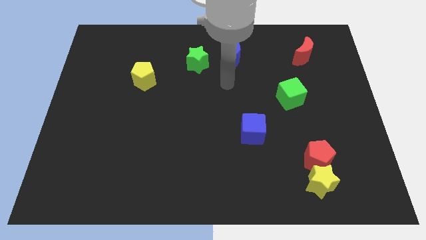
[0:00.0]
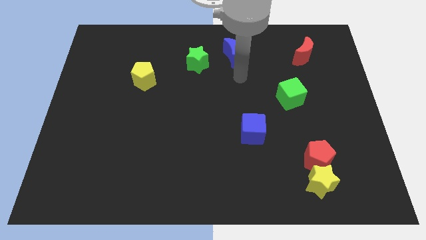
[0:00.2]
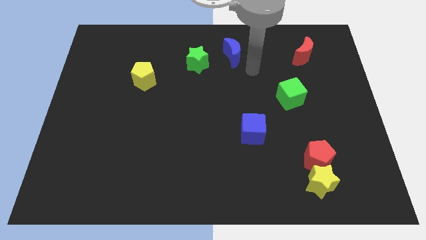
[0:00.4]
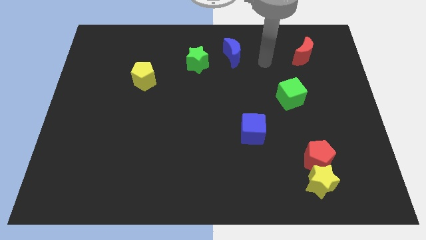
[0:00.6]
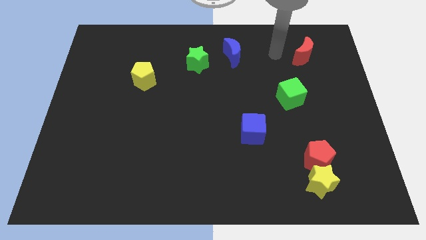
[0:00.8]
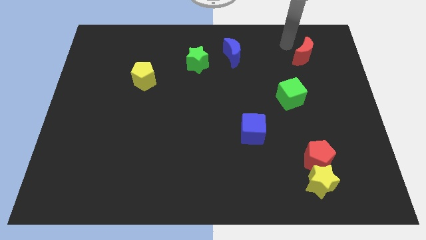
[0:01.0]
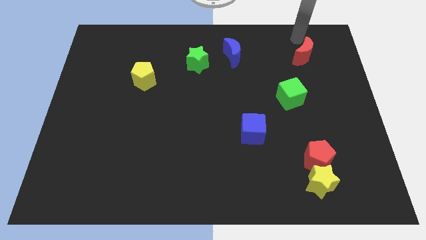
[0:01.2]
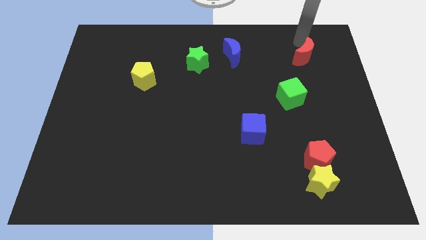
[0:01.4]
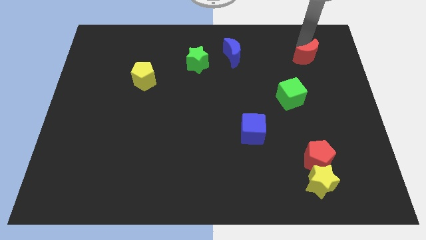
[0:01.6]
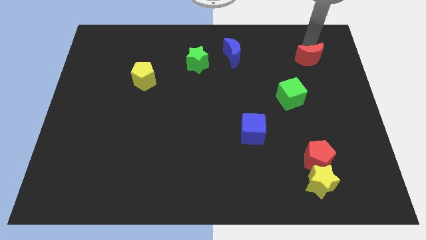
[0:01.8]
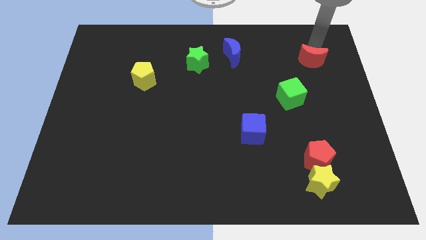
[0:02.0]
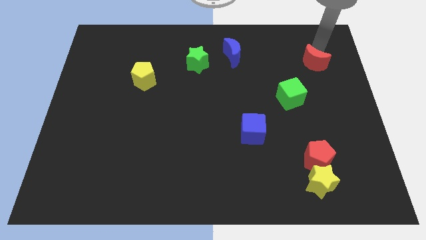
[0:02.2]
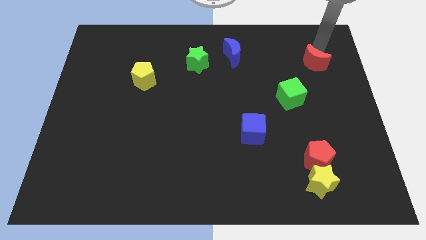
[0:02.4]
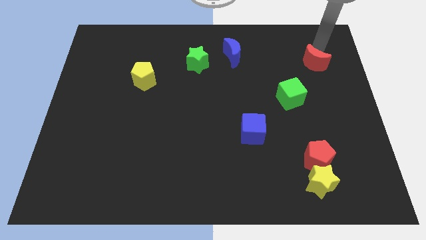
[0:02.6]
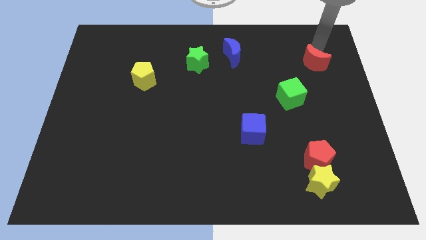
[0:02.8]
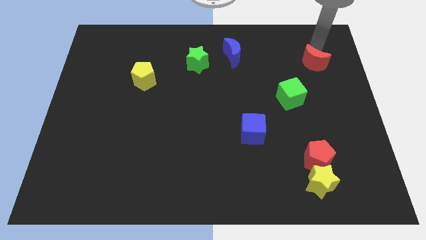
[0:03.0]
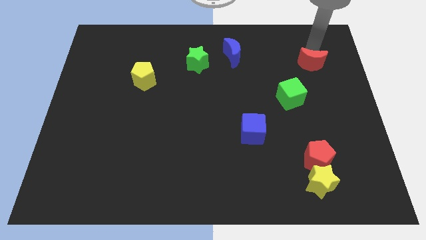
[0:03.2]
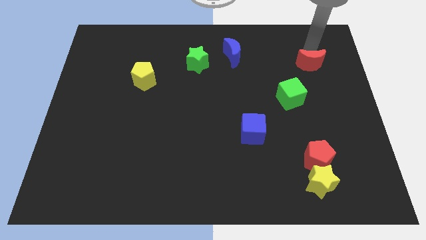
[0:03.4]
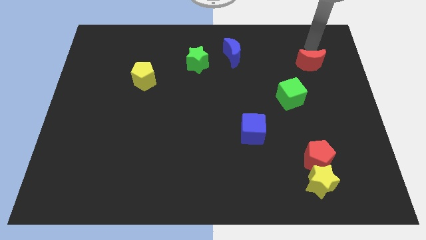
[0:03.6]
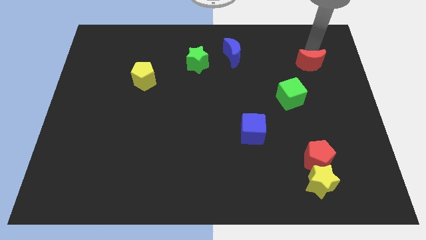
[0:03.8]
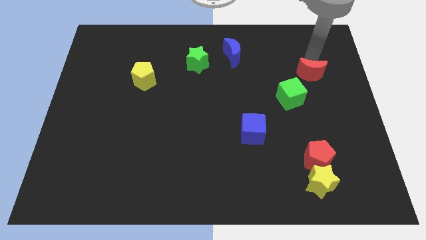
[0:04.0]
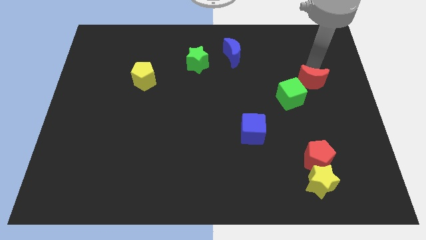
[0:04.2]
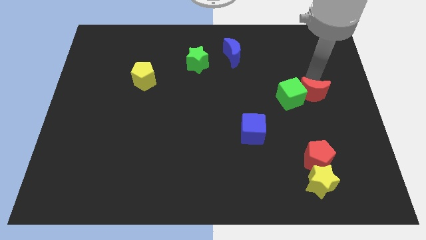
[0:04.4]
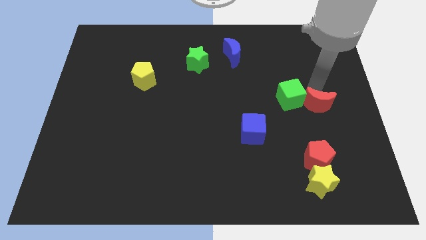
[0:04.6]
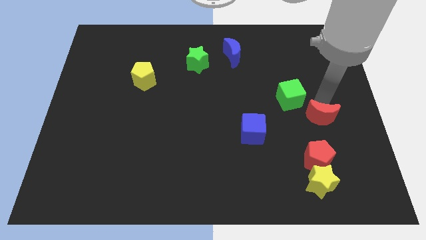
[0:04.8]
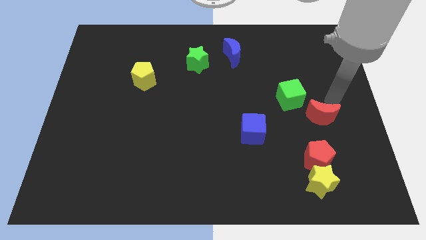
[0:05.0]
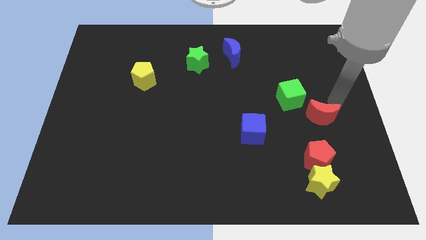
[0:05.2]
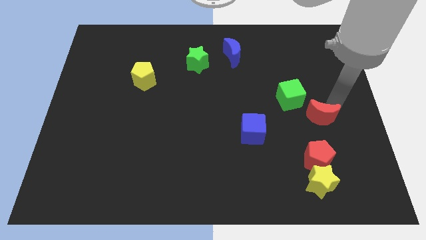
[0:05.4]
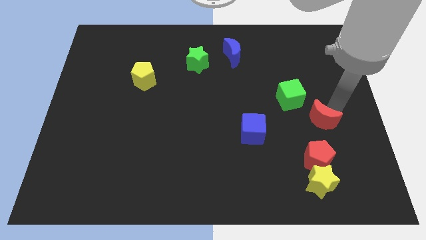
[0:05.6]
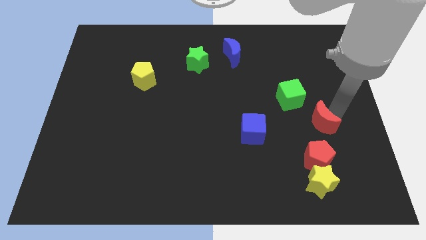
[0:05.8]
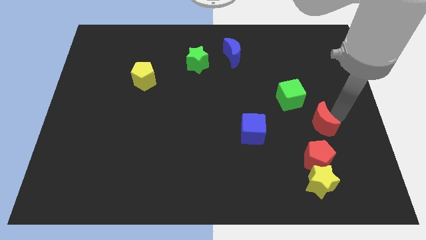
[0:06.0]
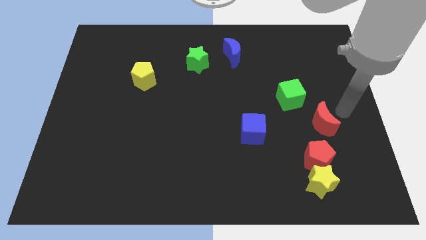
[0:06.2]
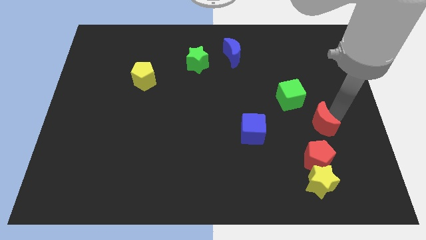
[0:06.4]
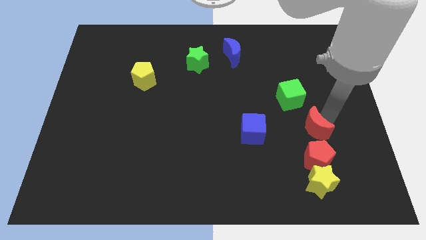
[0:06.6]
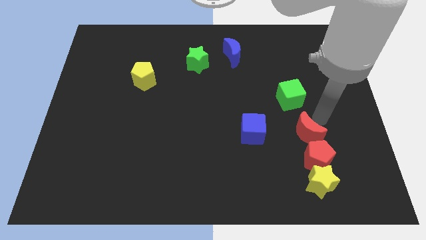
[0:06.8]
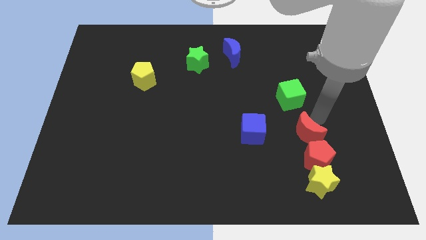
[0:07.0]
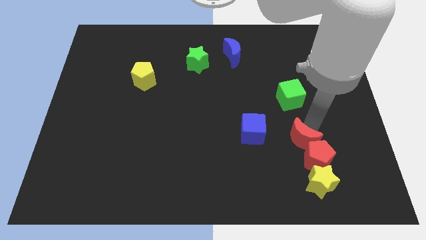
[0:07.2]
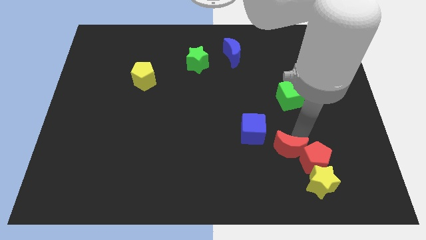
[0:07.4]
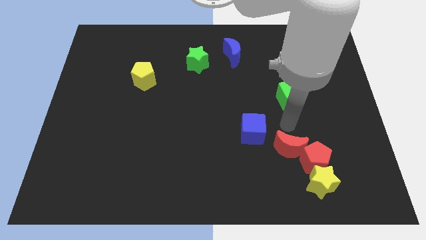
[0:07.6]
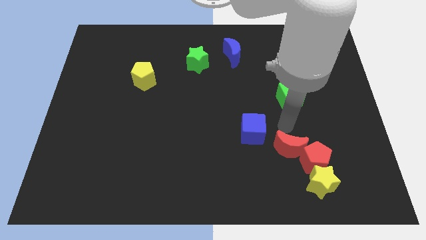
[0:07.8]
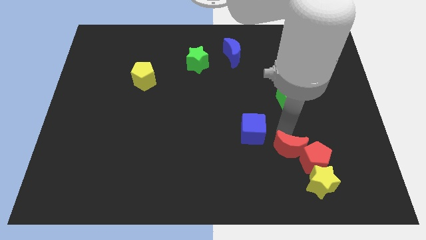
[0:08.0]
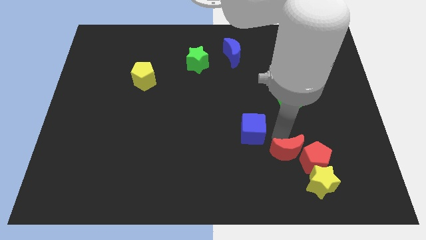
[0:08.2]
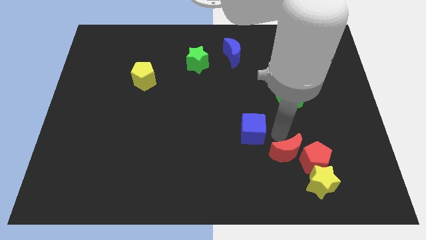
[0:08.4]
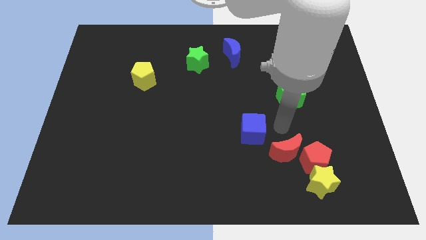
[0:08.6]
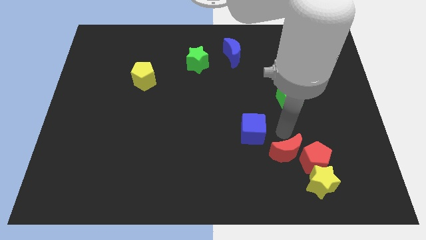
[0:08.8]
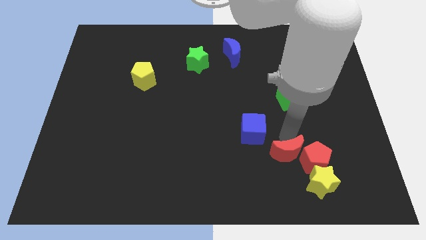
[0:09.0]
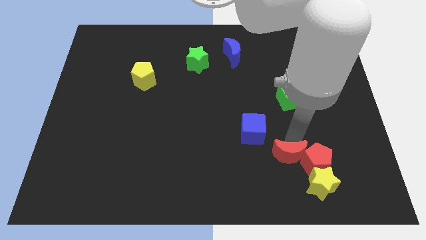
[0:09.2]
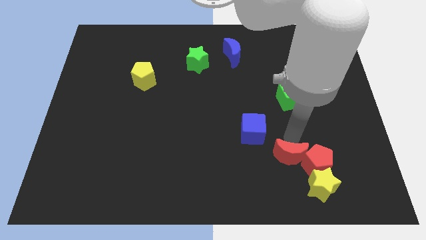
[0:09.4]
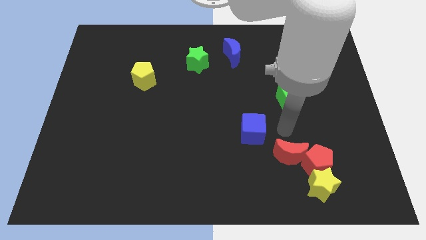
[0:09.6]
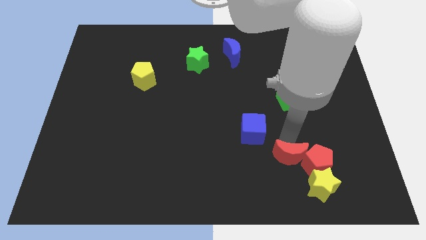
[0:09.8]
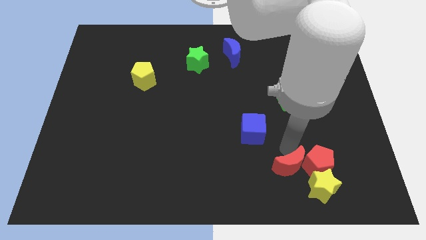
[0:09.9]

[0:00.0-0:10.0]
move the red moon to the bottom left of the red pentagon

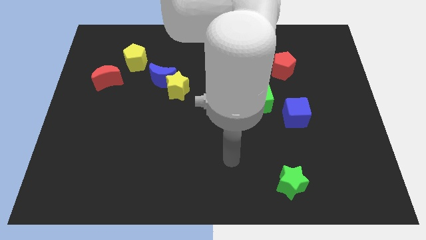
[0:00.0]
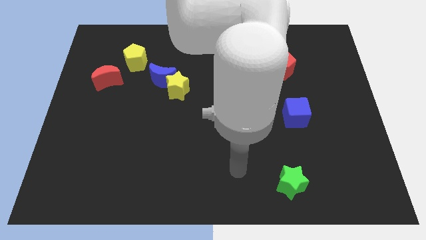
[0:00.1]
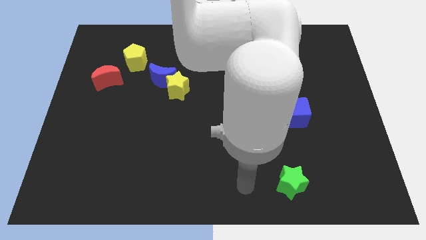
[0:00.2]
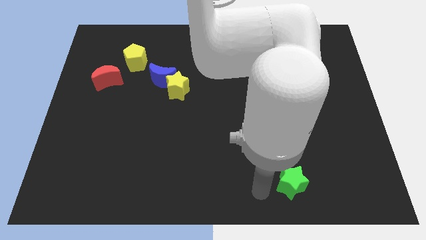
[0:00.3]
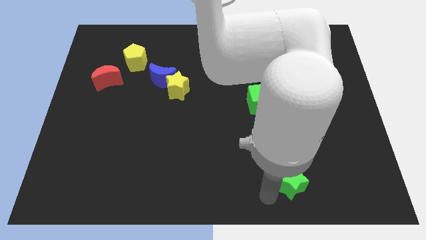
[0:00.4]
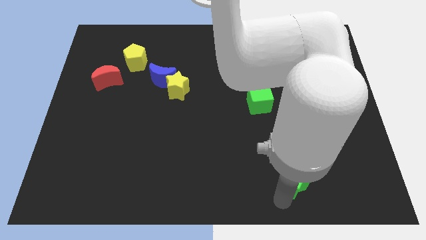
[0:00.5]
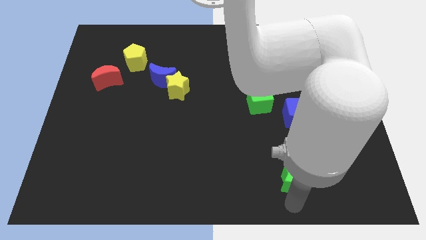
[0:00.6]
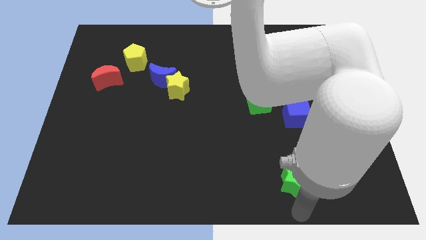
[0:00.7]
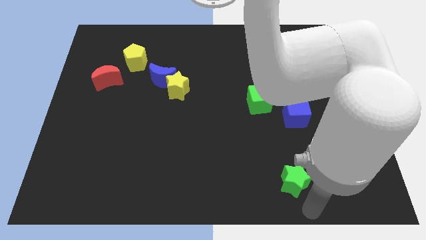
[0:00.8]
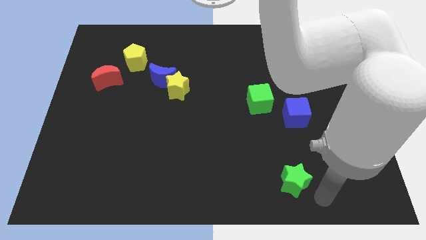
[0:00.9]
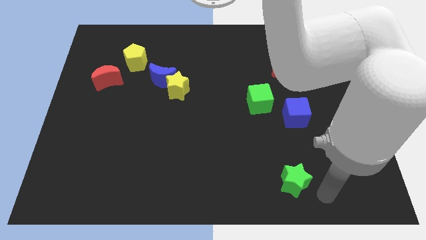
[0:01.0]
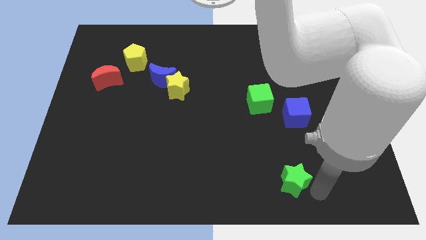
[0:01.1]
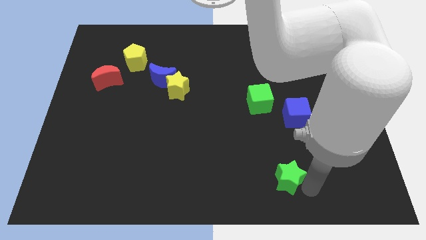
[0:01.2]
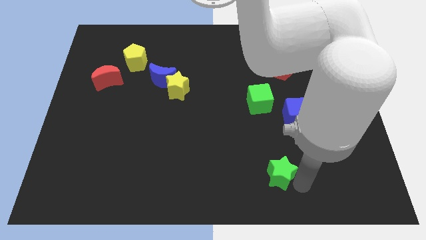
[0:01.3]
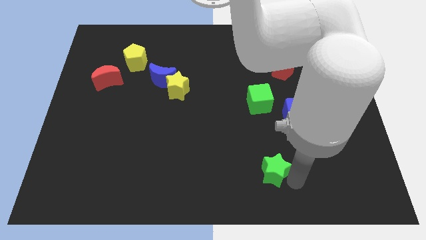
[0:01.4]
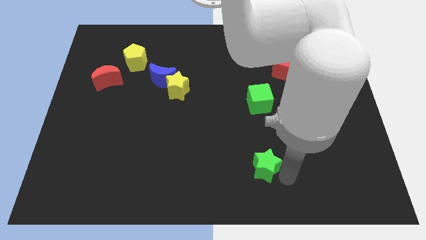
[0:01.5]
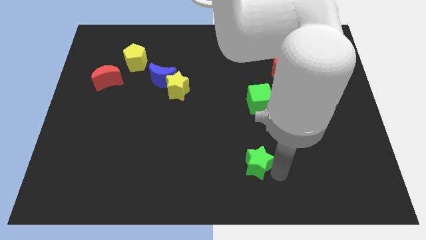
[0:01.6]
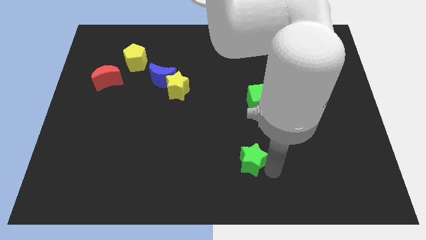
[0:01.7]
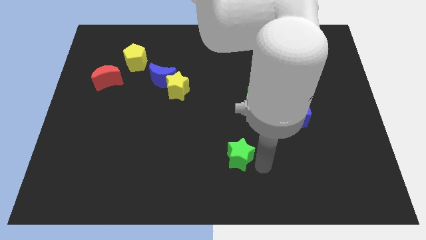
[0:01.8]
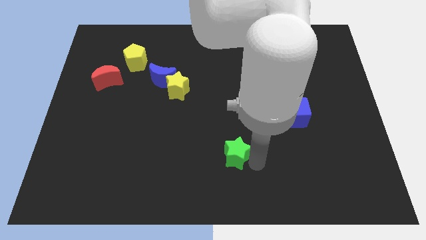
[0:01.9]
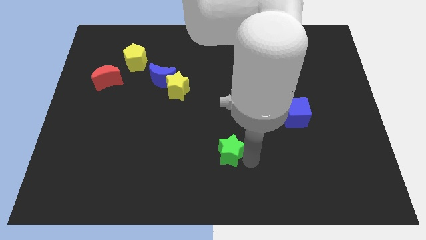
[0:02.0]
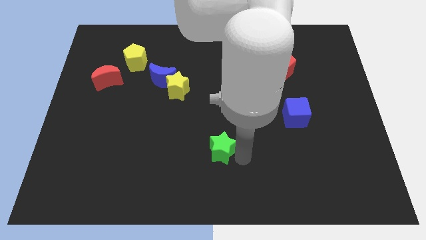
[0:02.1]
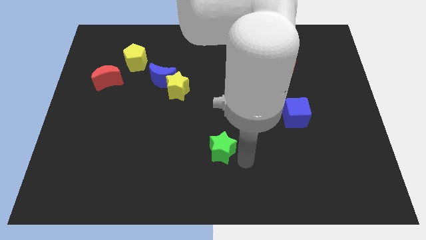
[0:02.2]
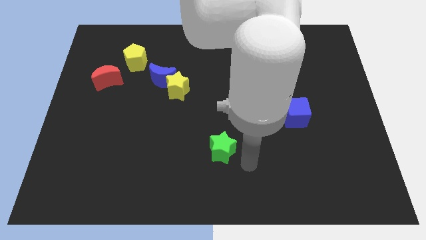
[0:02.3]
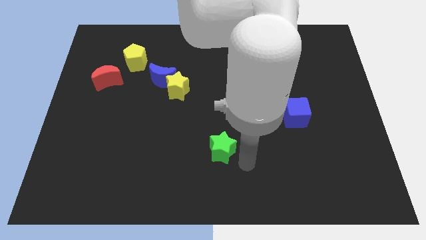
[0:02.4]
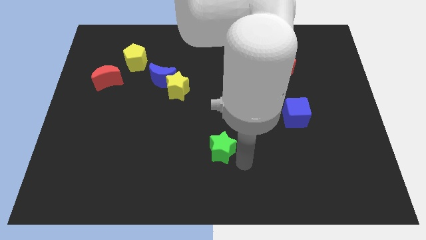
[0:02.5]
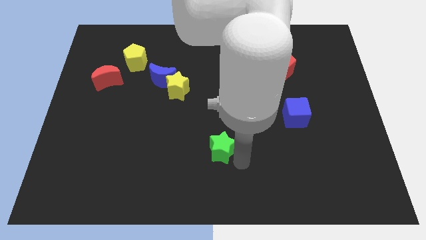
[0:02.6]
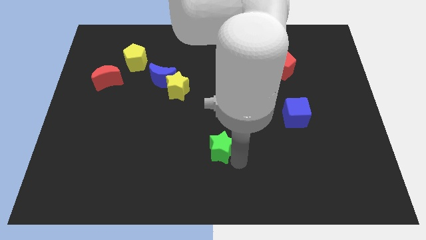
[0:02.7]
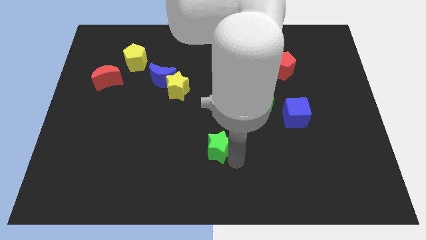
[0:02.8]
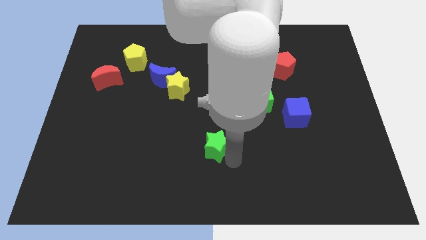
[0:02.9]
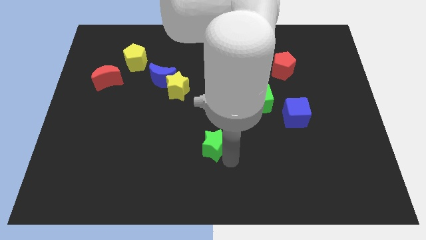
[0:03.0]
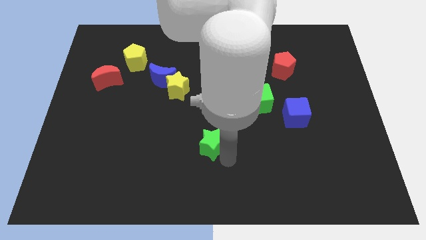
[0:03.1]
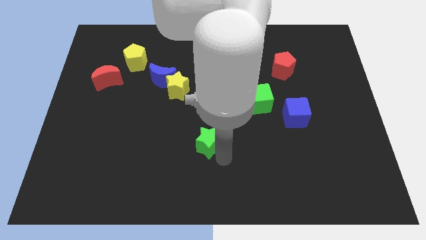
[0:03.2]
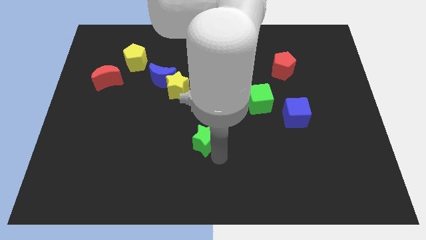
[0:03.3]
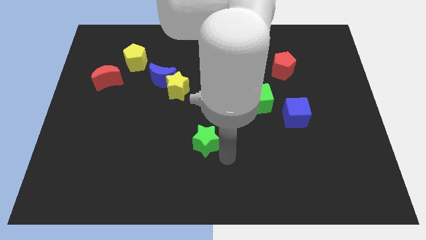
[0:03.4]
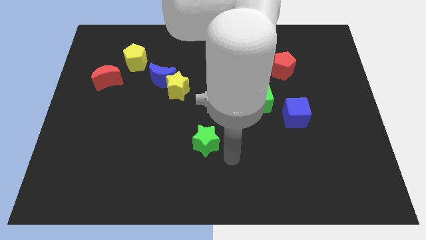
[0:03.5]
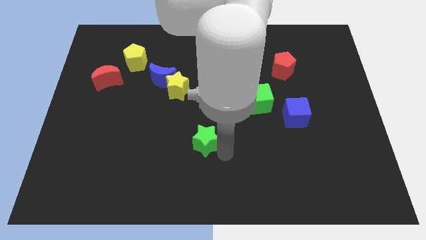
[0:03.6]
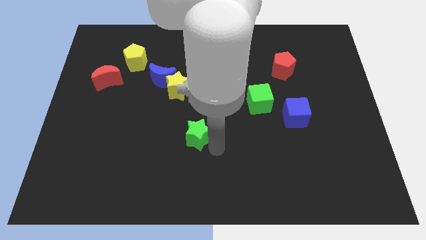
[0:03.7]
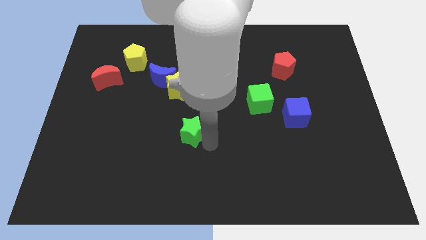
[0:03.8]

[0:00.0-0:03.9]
slide the green star below the yellow star
